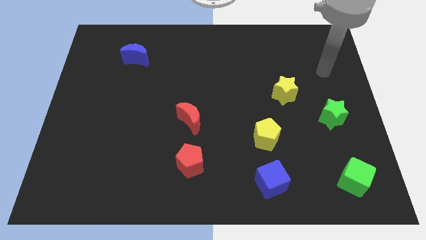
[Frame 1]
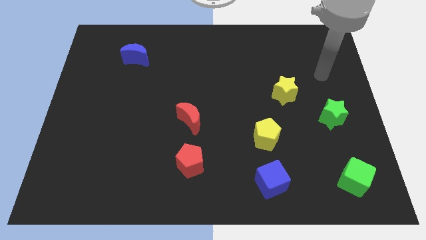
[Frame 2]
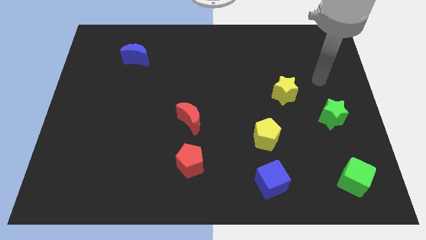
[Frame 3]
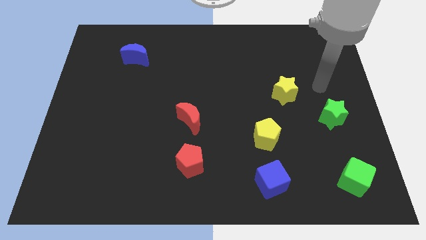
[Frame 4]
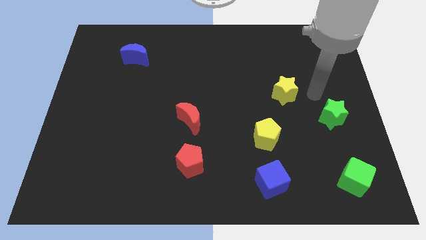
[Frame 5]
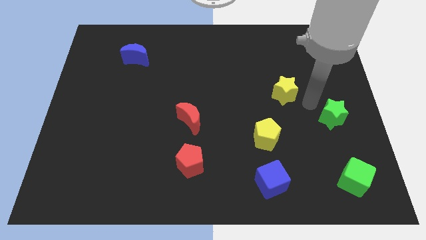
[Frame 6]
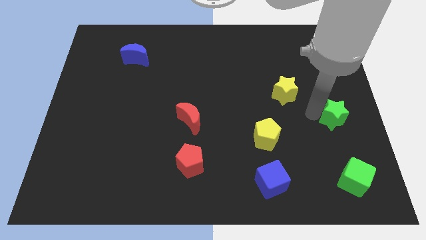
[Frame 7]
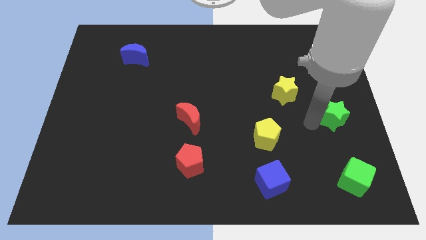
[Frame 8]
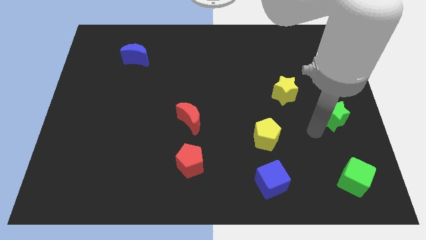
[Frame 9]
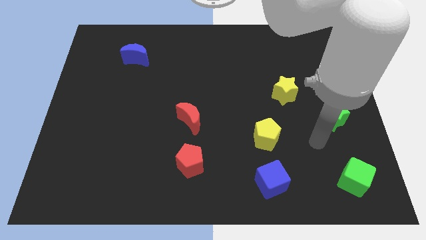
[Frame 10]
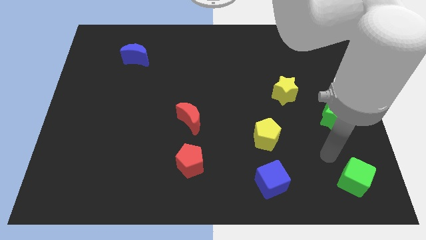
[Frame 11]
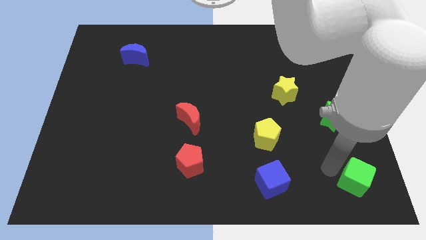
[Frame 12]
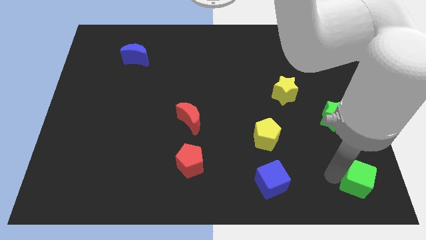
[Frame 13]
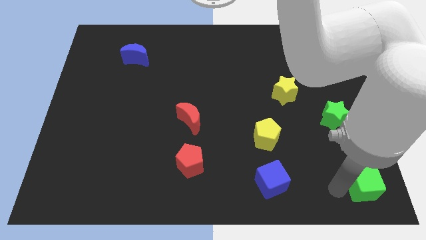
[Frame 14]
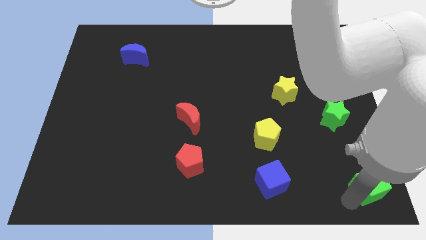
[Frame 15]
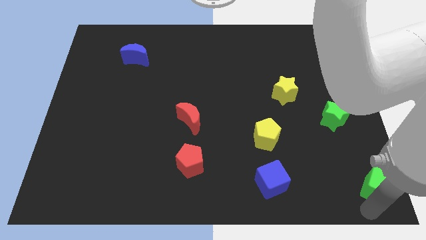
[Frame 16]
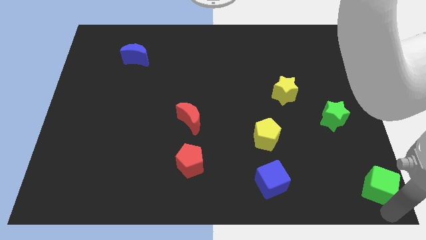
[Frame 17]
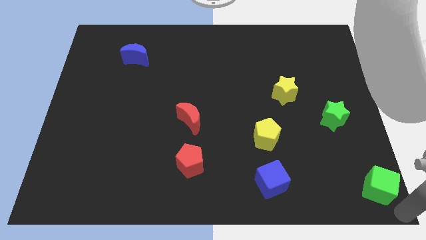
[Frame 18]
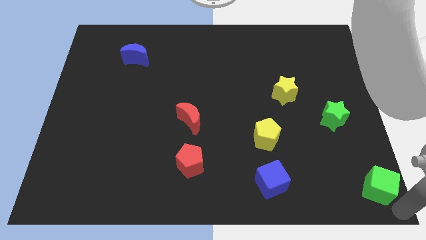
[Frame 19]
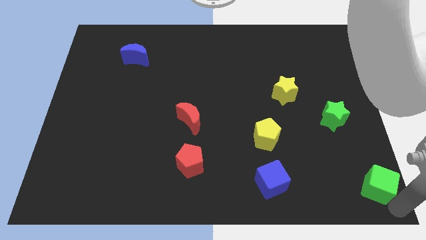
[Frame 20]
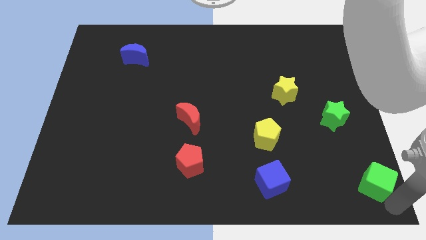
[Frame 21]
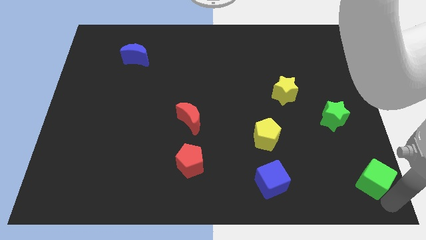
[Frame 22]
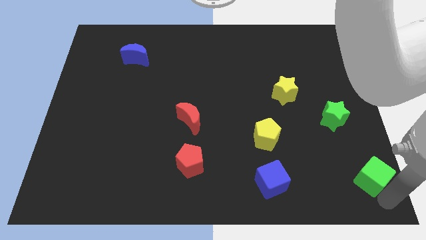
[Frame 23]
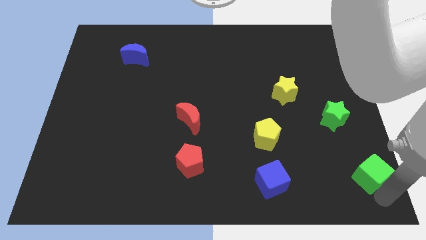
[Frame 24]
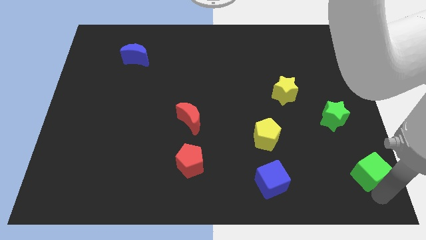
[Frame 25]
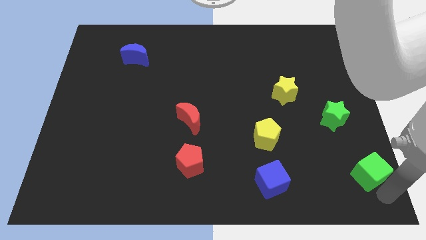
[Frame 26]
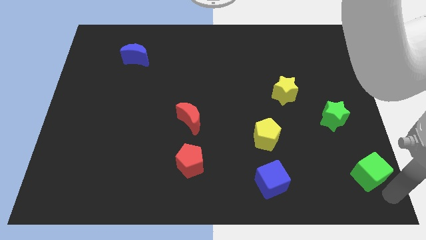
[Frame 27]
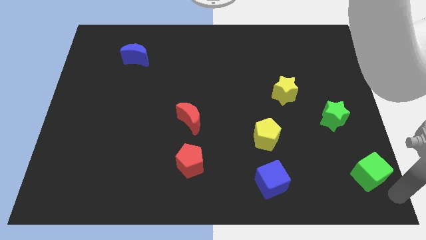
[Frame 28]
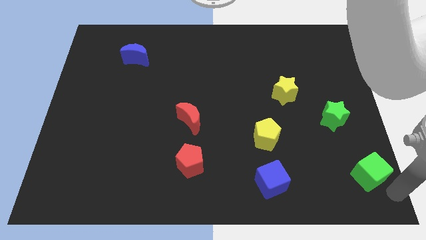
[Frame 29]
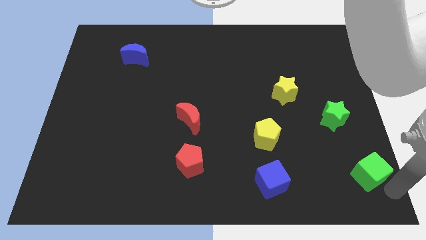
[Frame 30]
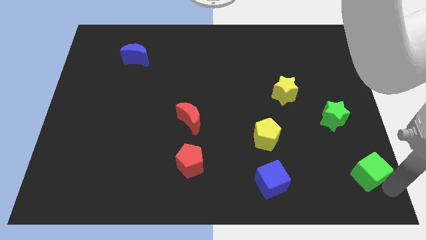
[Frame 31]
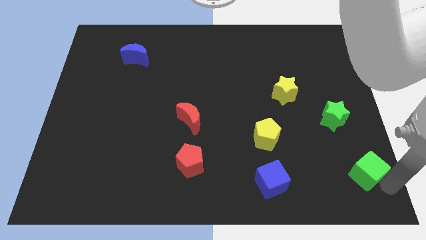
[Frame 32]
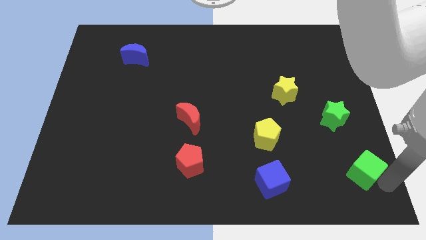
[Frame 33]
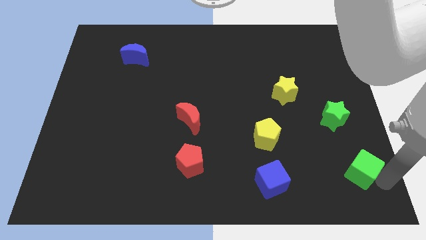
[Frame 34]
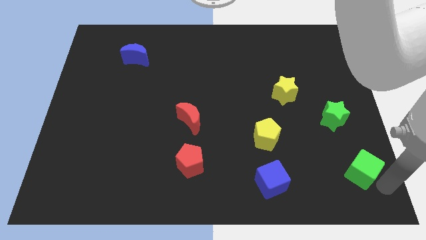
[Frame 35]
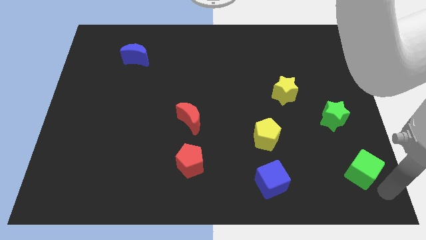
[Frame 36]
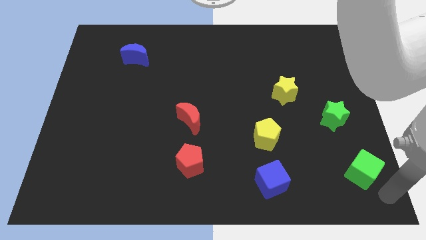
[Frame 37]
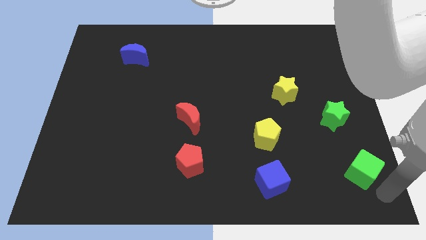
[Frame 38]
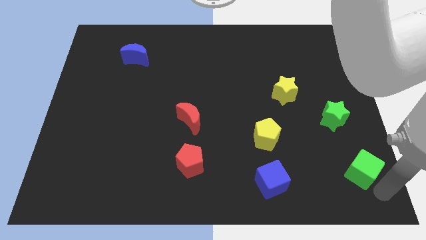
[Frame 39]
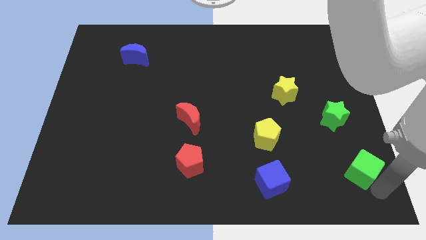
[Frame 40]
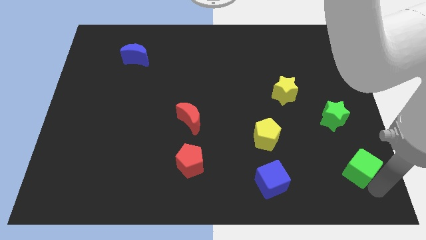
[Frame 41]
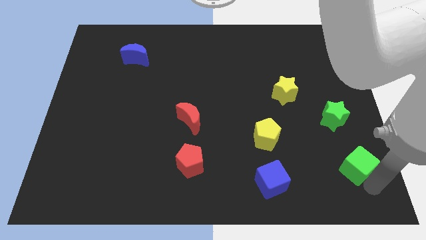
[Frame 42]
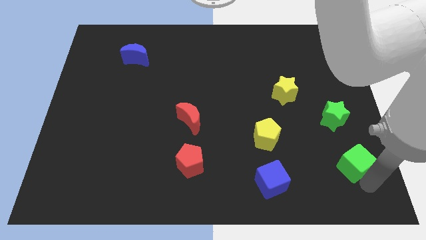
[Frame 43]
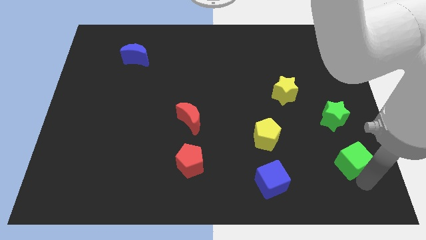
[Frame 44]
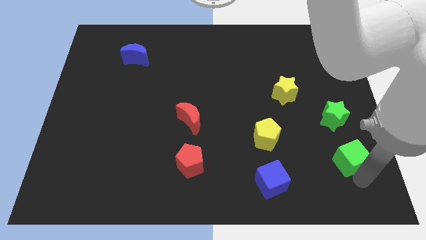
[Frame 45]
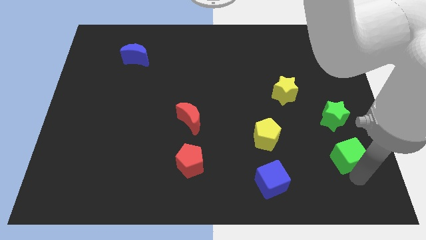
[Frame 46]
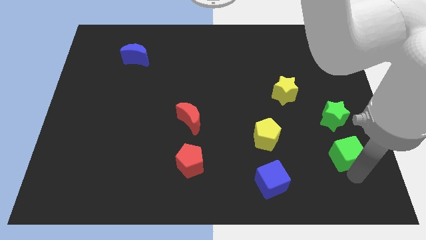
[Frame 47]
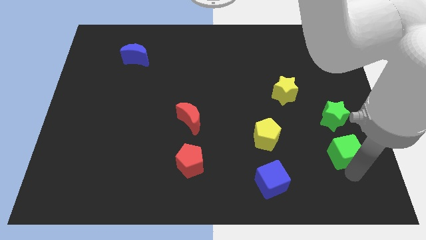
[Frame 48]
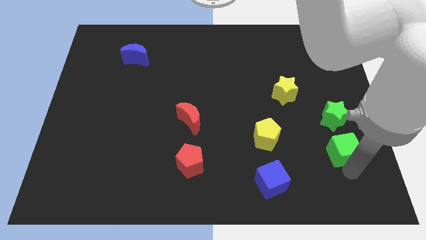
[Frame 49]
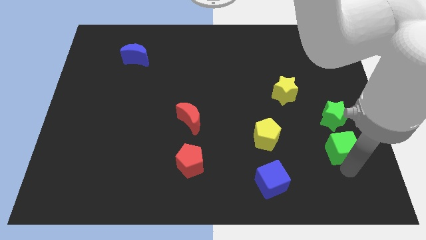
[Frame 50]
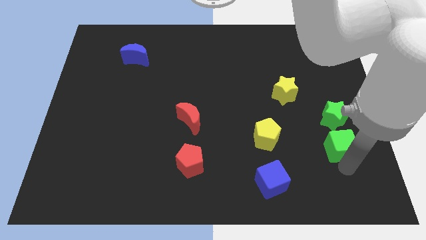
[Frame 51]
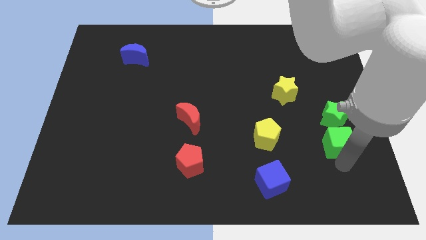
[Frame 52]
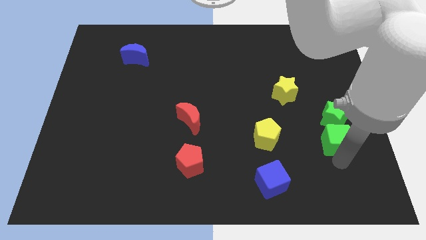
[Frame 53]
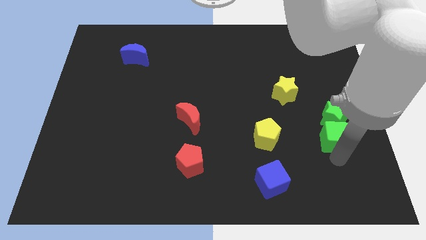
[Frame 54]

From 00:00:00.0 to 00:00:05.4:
slide the green cube close to the green star
